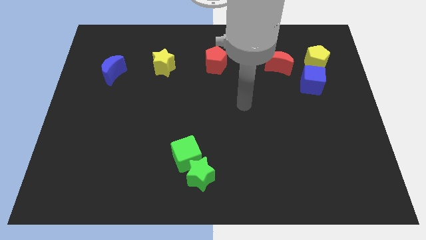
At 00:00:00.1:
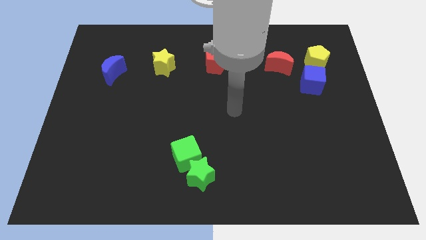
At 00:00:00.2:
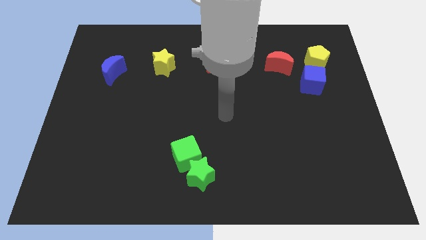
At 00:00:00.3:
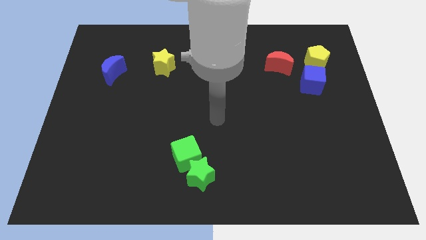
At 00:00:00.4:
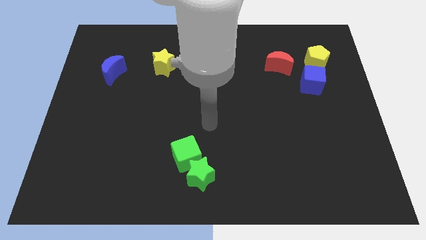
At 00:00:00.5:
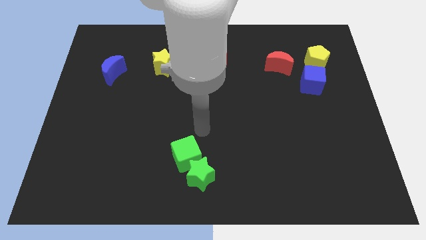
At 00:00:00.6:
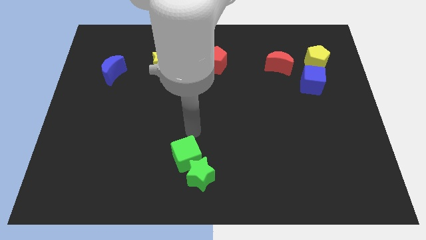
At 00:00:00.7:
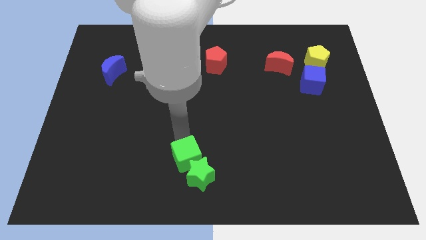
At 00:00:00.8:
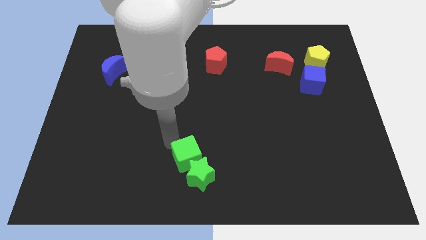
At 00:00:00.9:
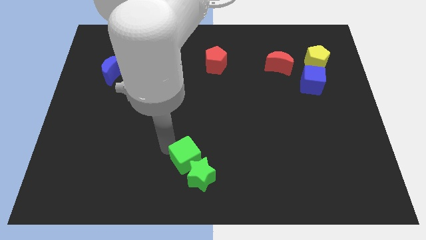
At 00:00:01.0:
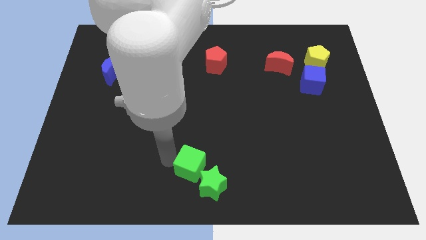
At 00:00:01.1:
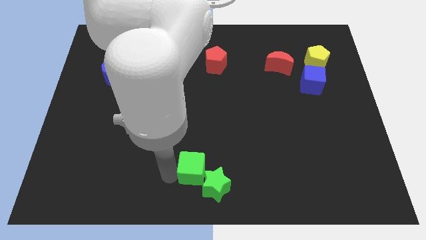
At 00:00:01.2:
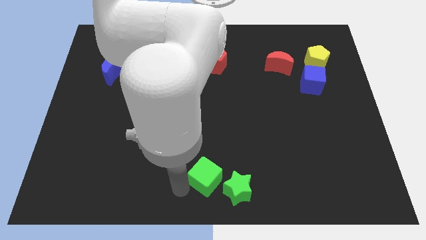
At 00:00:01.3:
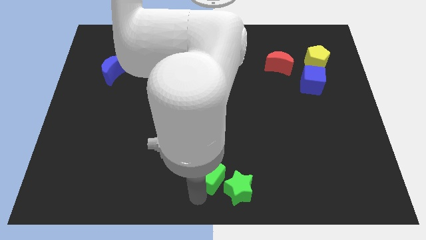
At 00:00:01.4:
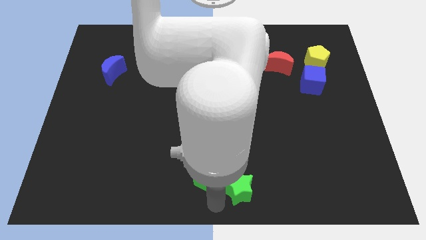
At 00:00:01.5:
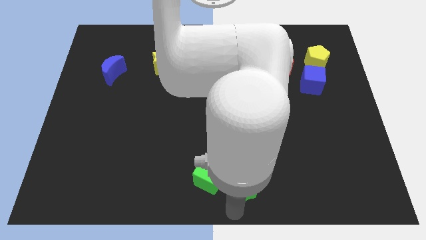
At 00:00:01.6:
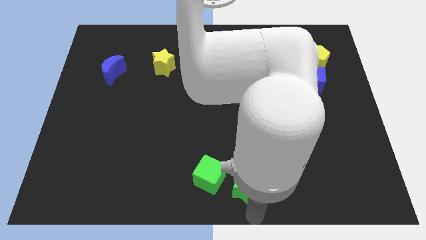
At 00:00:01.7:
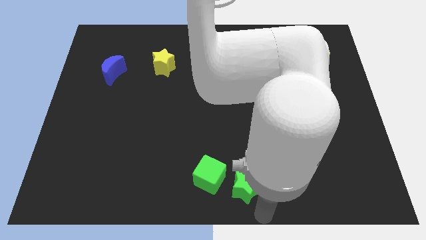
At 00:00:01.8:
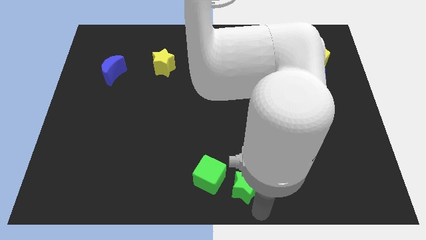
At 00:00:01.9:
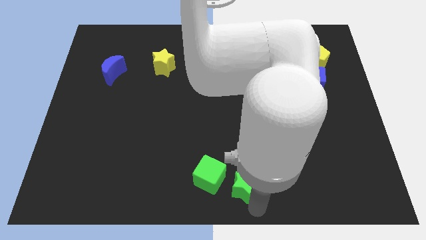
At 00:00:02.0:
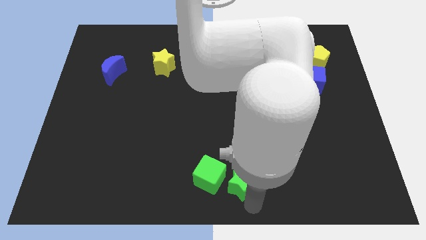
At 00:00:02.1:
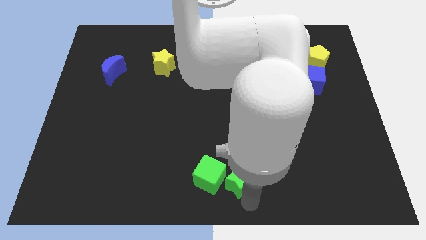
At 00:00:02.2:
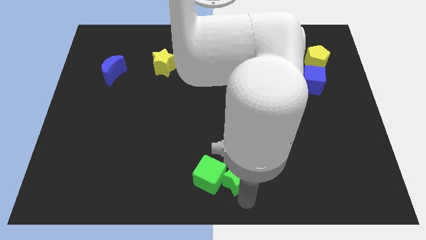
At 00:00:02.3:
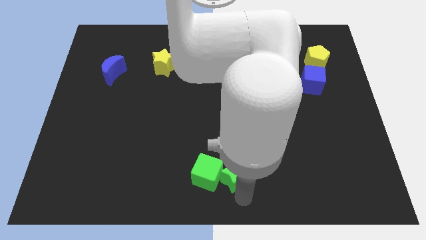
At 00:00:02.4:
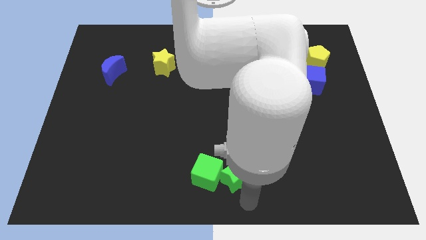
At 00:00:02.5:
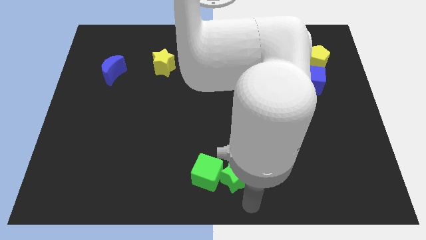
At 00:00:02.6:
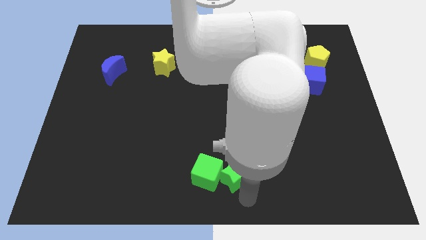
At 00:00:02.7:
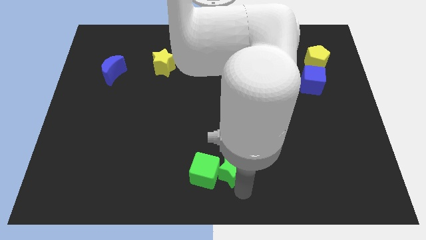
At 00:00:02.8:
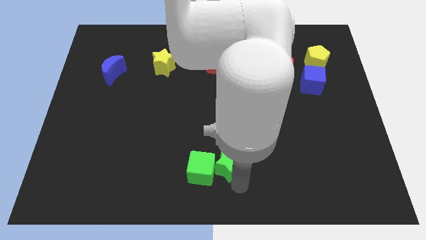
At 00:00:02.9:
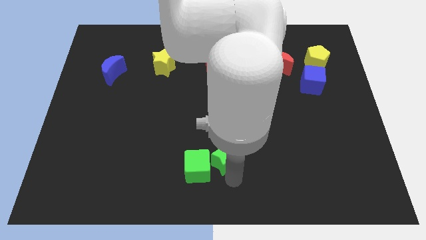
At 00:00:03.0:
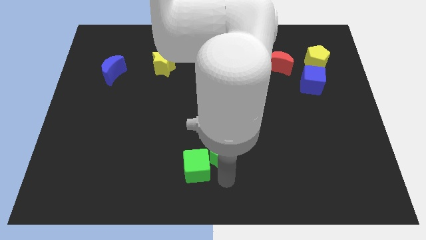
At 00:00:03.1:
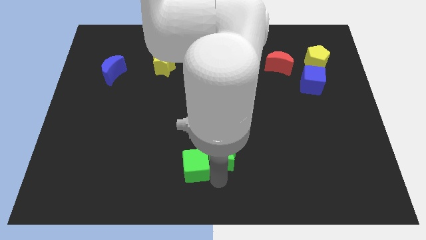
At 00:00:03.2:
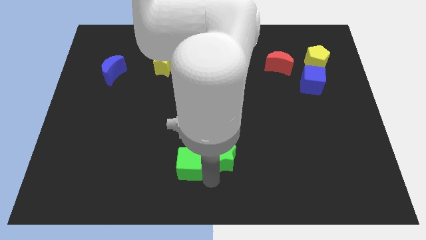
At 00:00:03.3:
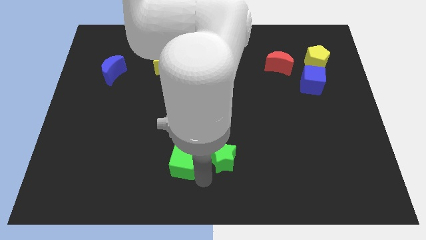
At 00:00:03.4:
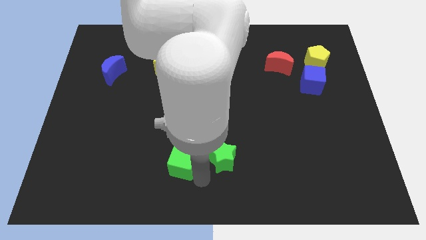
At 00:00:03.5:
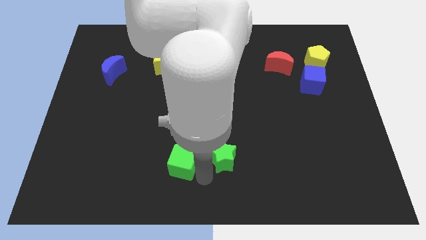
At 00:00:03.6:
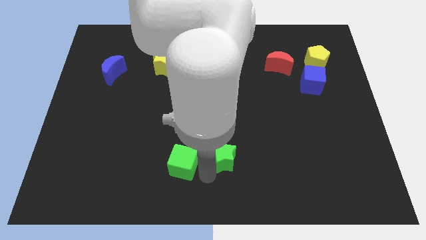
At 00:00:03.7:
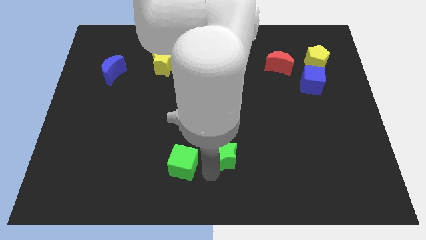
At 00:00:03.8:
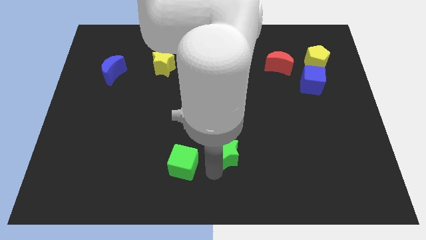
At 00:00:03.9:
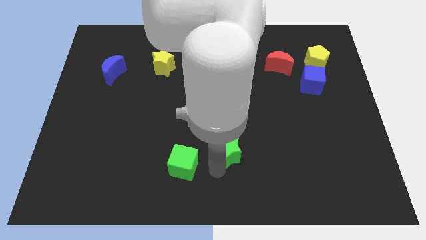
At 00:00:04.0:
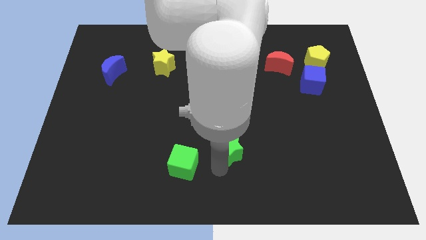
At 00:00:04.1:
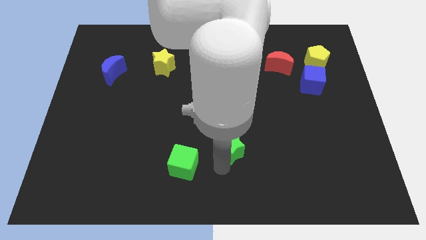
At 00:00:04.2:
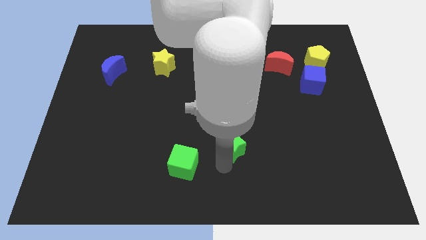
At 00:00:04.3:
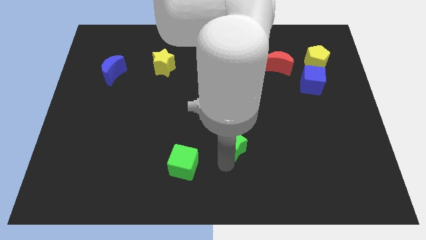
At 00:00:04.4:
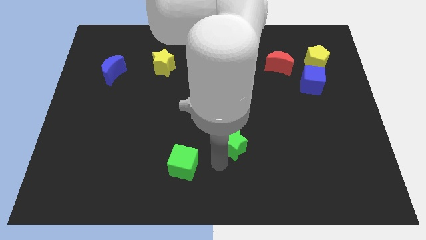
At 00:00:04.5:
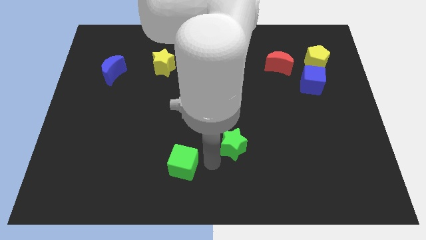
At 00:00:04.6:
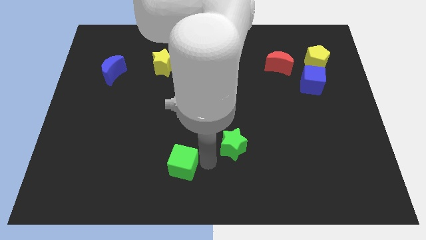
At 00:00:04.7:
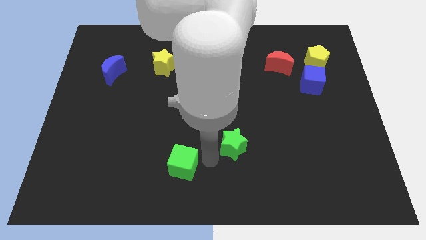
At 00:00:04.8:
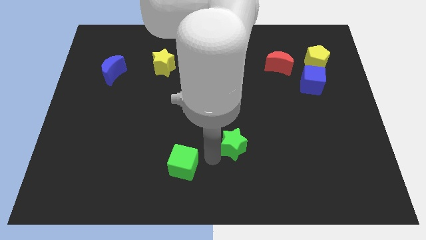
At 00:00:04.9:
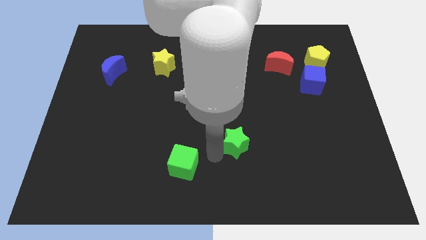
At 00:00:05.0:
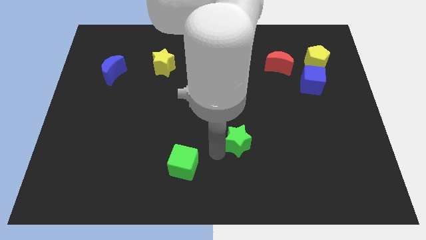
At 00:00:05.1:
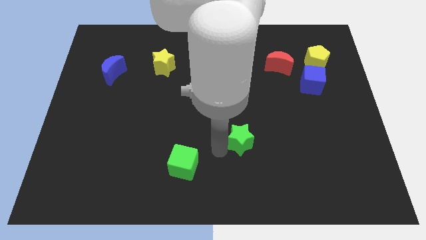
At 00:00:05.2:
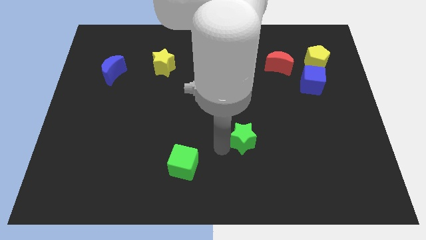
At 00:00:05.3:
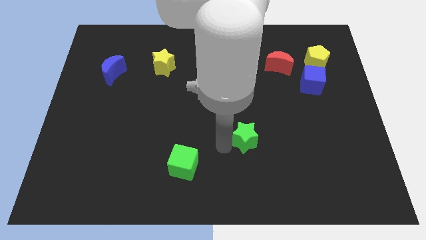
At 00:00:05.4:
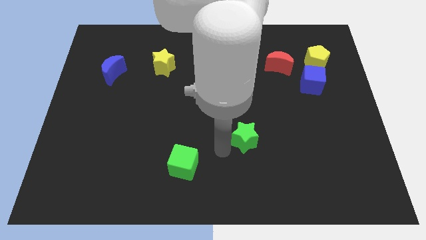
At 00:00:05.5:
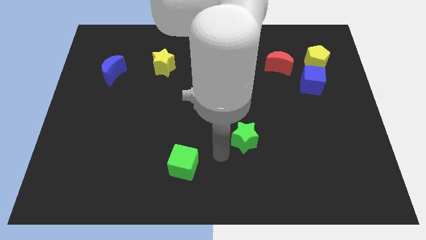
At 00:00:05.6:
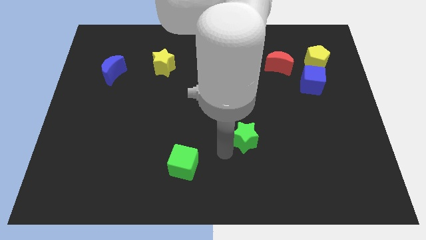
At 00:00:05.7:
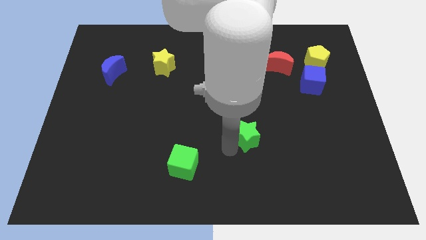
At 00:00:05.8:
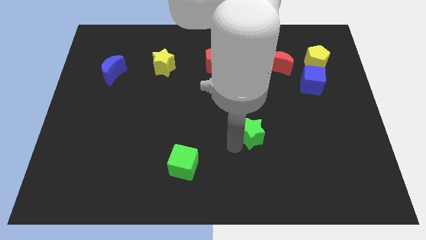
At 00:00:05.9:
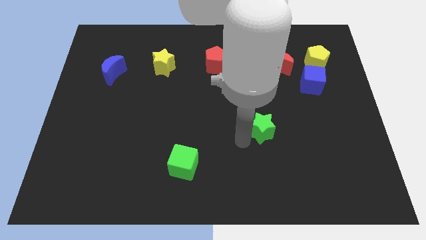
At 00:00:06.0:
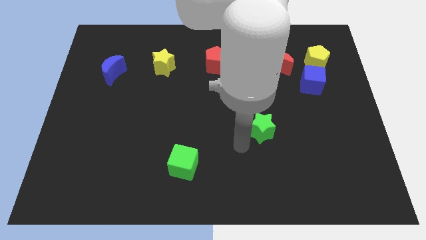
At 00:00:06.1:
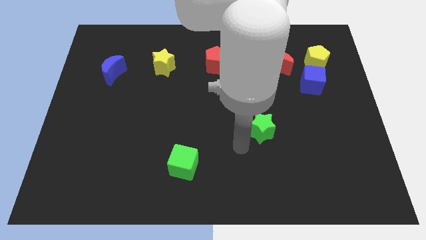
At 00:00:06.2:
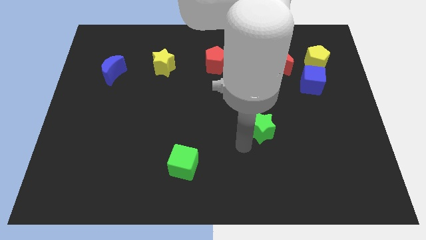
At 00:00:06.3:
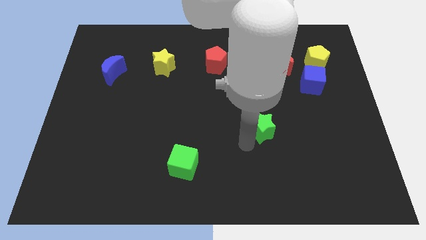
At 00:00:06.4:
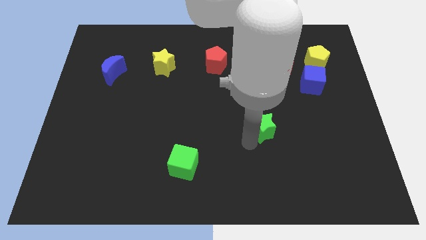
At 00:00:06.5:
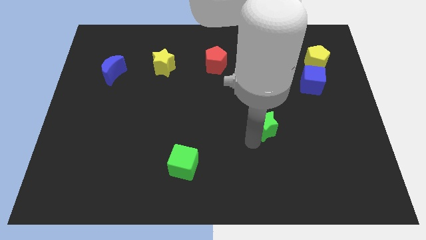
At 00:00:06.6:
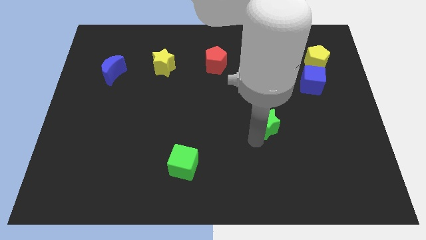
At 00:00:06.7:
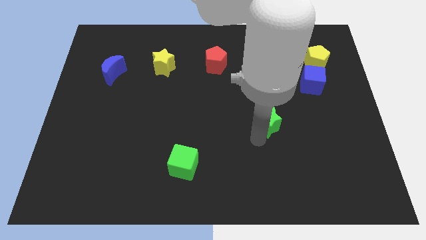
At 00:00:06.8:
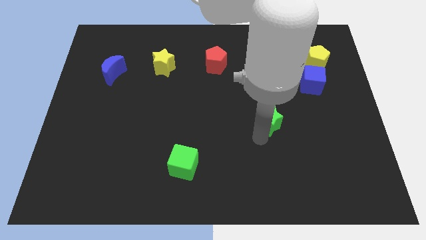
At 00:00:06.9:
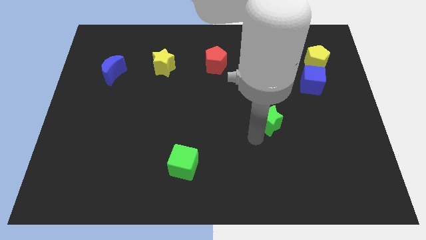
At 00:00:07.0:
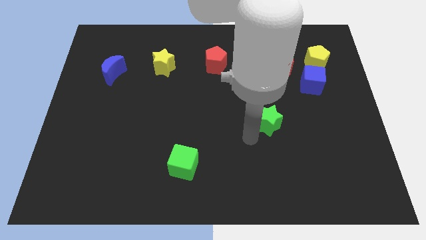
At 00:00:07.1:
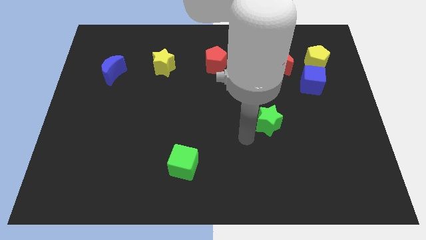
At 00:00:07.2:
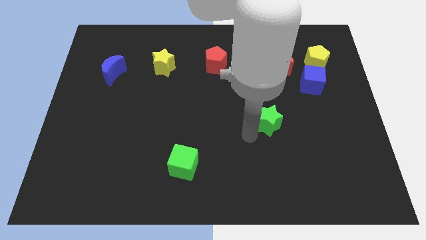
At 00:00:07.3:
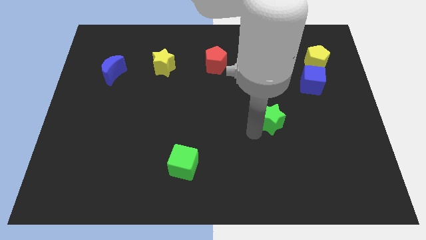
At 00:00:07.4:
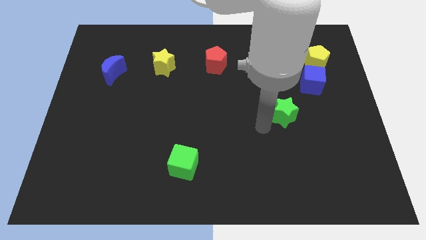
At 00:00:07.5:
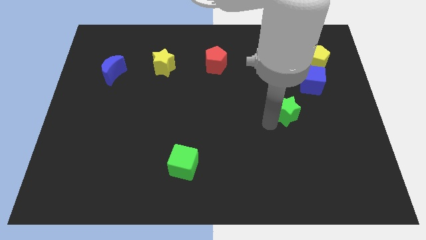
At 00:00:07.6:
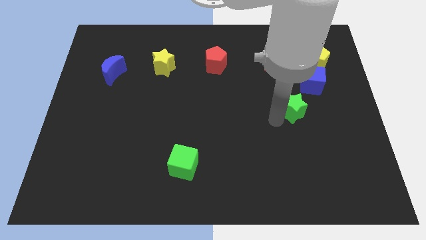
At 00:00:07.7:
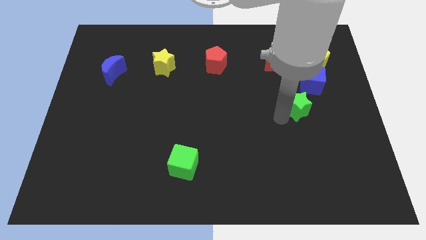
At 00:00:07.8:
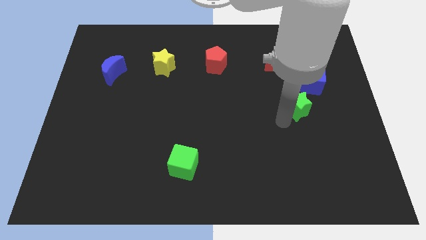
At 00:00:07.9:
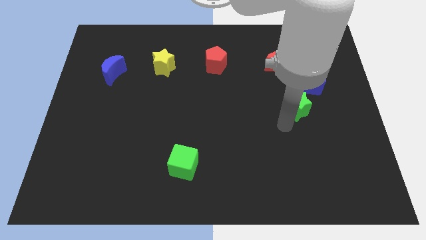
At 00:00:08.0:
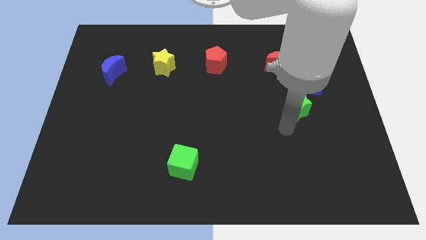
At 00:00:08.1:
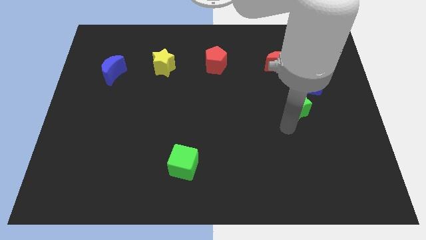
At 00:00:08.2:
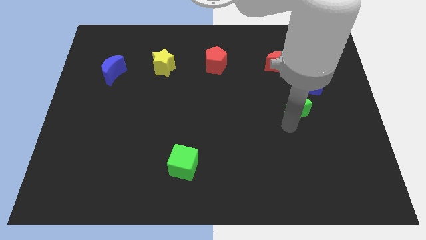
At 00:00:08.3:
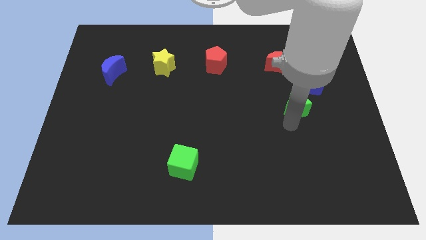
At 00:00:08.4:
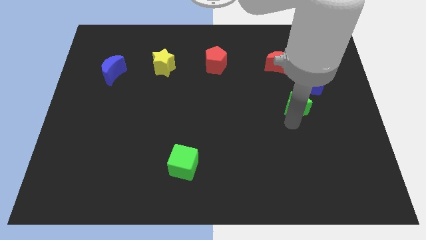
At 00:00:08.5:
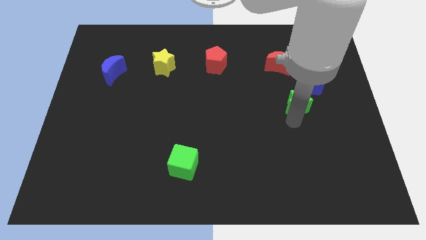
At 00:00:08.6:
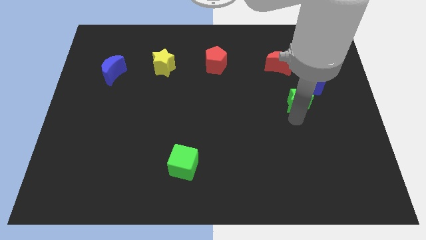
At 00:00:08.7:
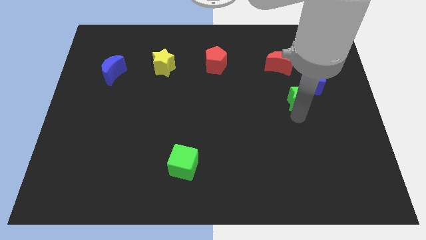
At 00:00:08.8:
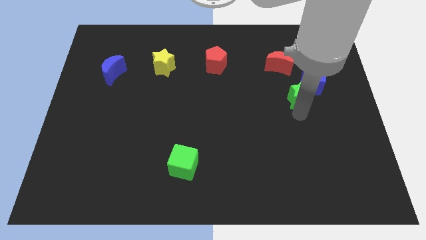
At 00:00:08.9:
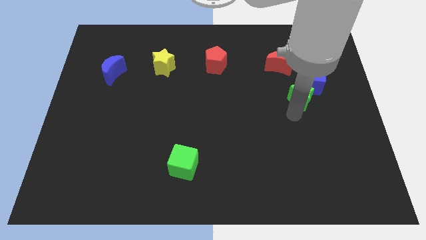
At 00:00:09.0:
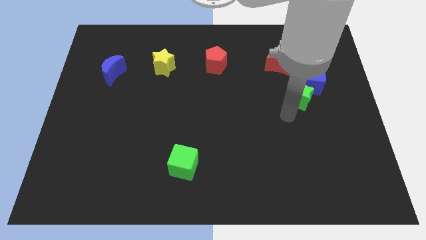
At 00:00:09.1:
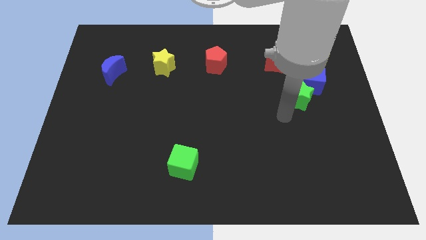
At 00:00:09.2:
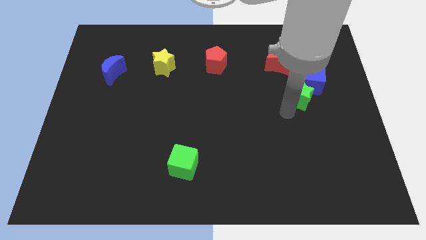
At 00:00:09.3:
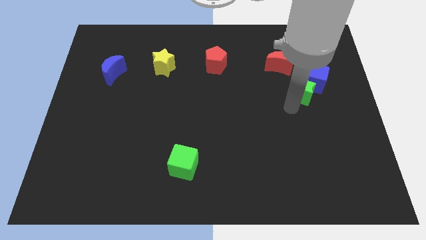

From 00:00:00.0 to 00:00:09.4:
put the green star to the blue cube
